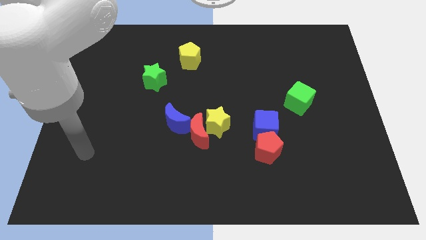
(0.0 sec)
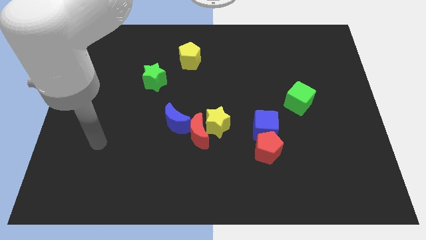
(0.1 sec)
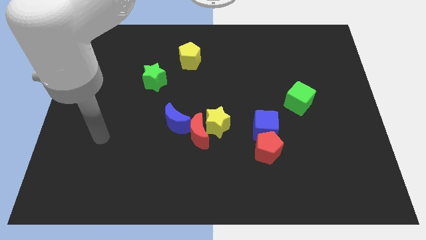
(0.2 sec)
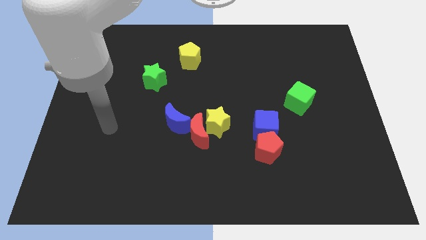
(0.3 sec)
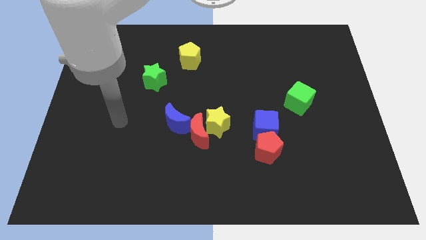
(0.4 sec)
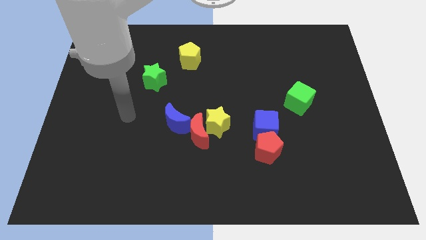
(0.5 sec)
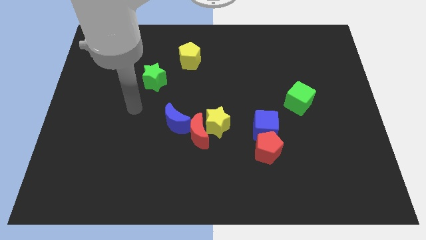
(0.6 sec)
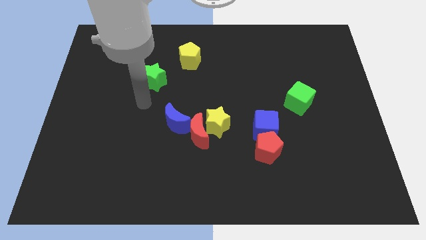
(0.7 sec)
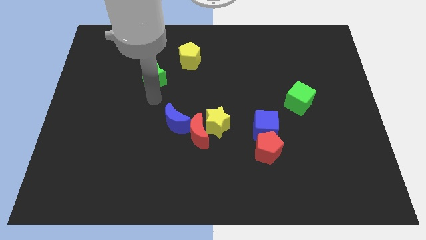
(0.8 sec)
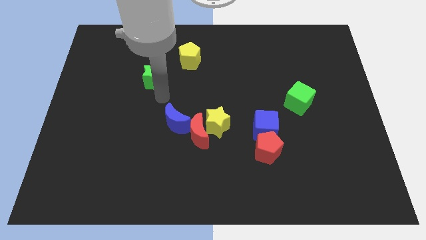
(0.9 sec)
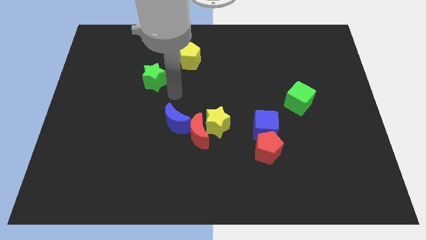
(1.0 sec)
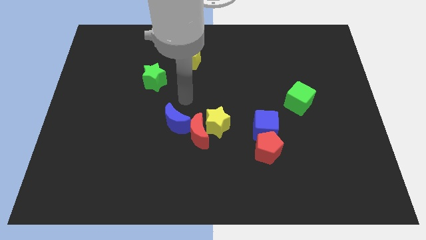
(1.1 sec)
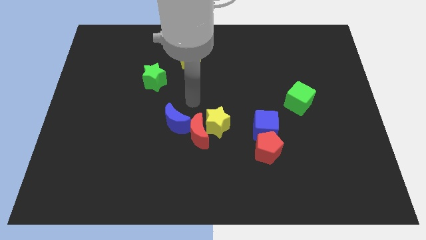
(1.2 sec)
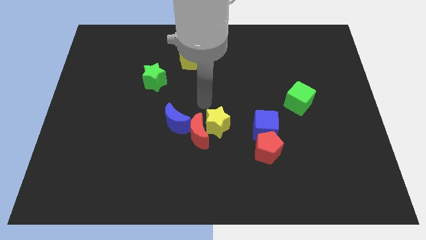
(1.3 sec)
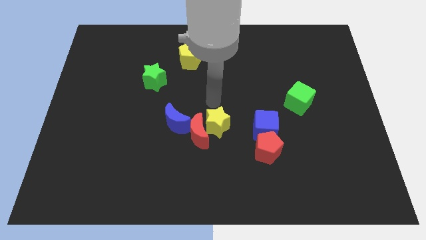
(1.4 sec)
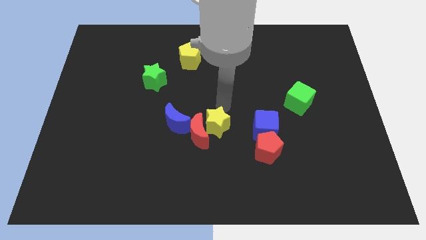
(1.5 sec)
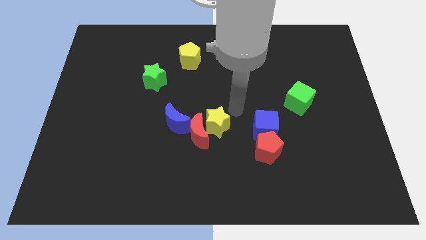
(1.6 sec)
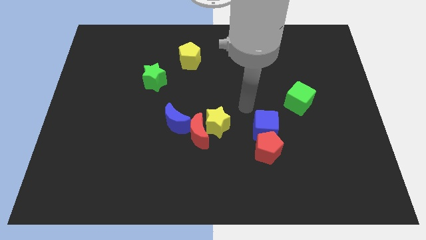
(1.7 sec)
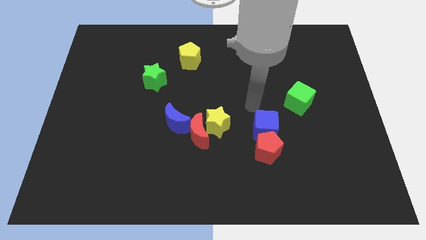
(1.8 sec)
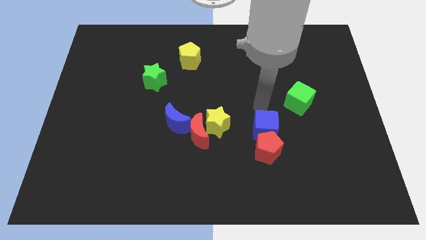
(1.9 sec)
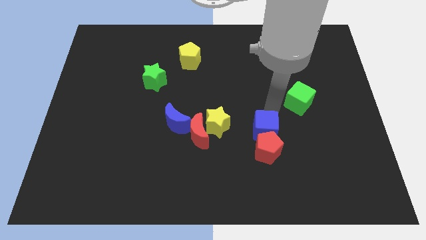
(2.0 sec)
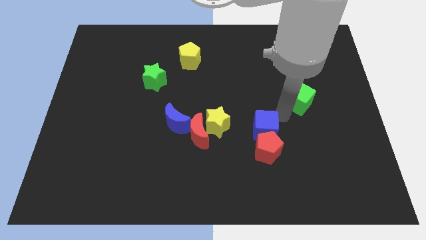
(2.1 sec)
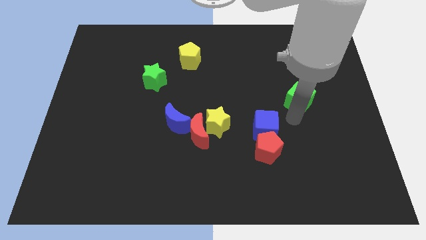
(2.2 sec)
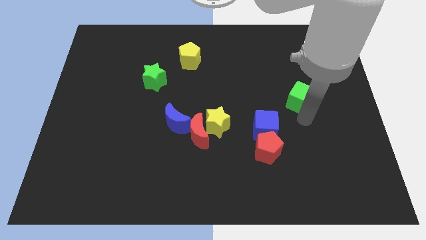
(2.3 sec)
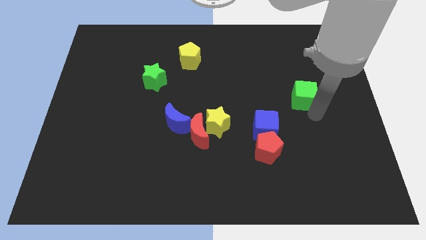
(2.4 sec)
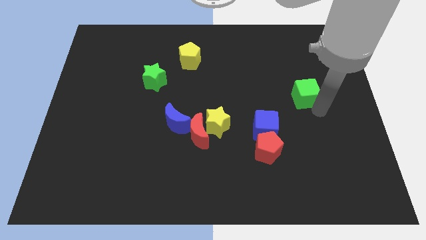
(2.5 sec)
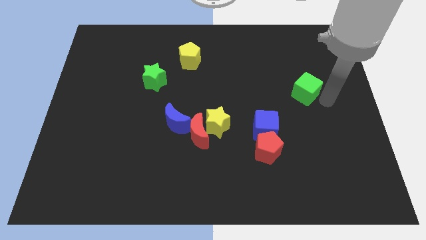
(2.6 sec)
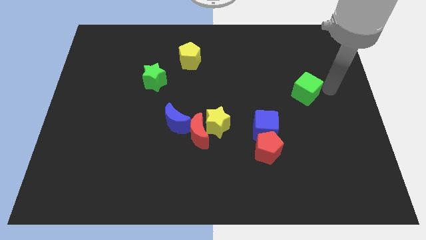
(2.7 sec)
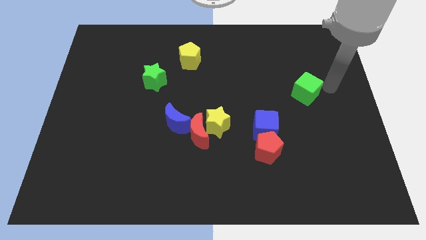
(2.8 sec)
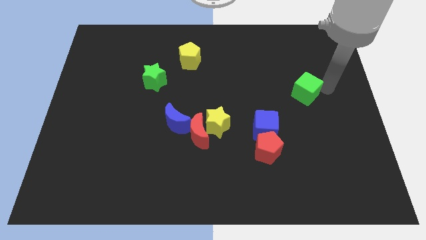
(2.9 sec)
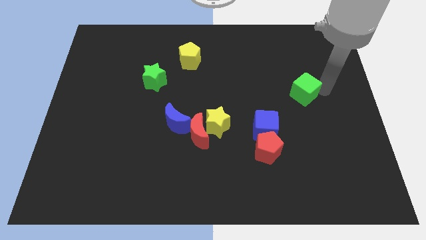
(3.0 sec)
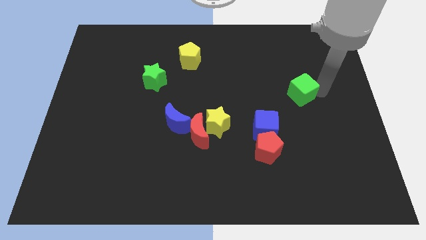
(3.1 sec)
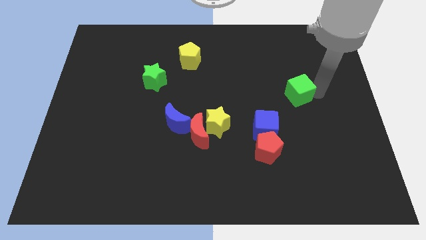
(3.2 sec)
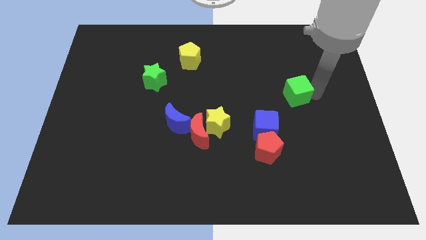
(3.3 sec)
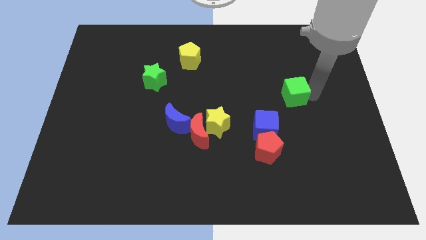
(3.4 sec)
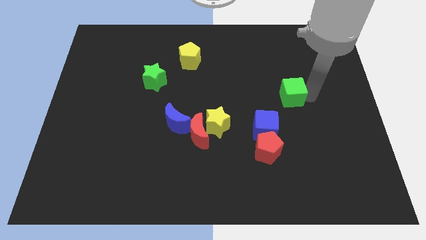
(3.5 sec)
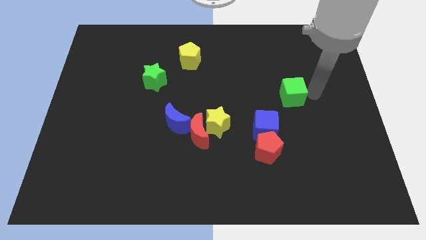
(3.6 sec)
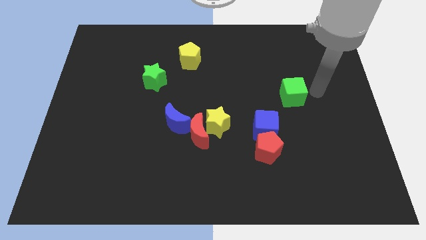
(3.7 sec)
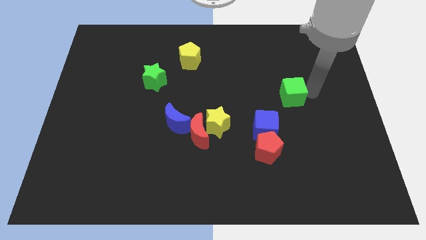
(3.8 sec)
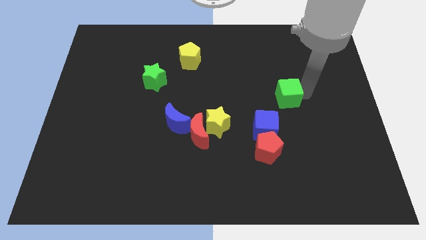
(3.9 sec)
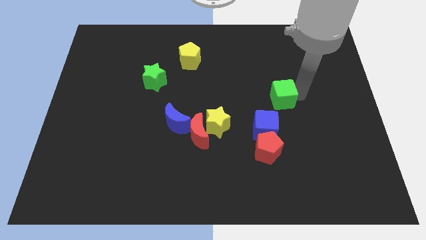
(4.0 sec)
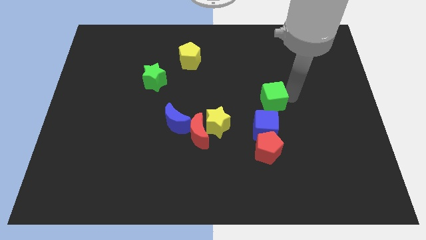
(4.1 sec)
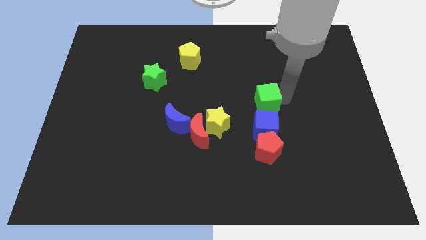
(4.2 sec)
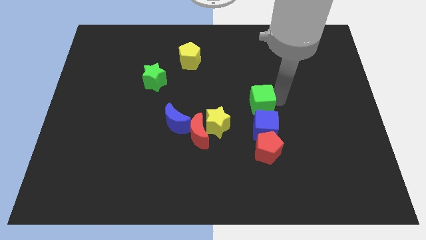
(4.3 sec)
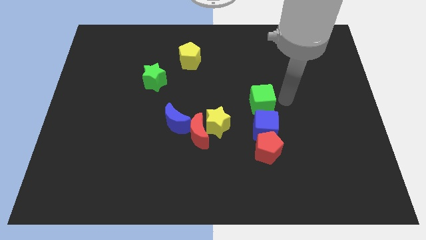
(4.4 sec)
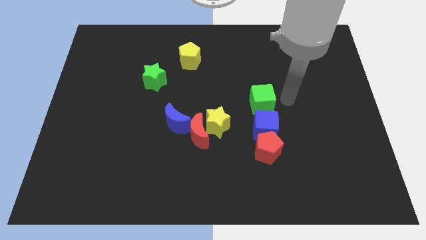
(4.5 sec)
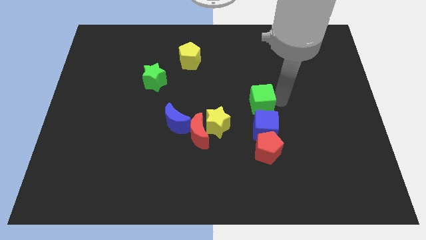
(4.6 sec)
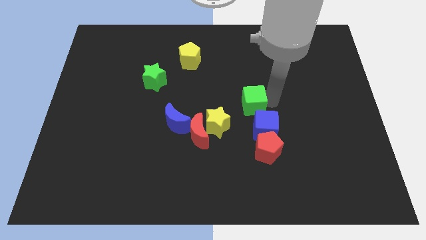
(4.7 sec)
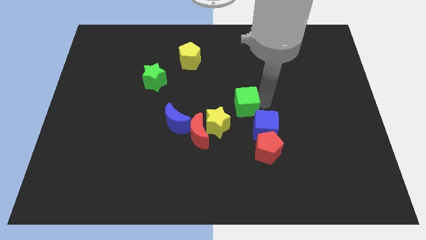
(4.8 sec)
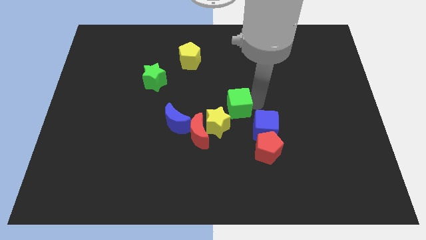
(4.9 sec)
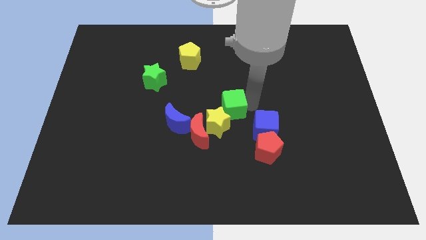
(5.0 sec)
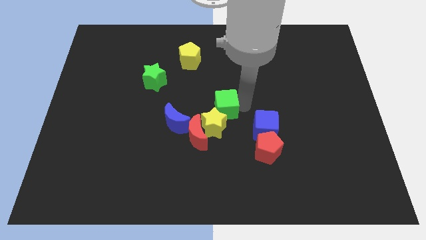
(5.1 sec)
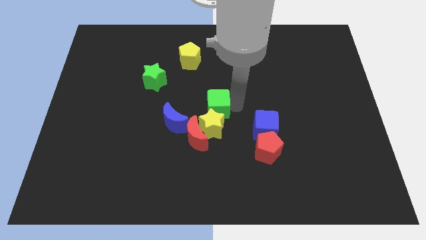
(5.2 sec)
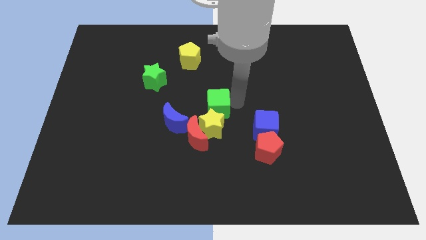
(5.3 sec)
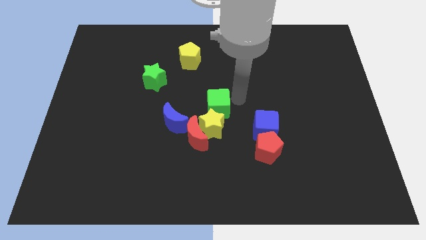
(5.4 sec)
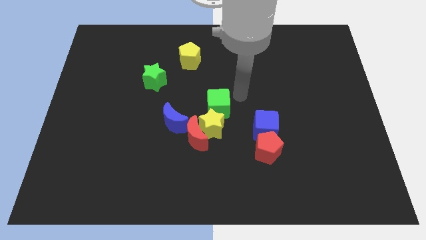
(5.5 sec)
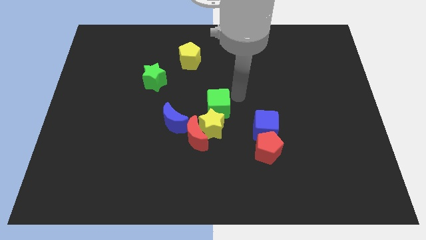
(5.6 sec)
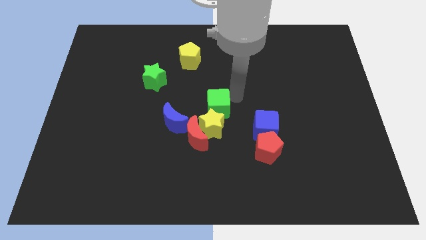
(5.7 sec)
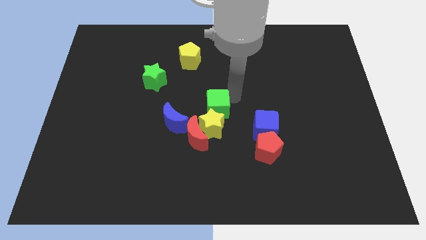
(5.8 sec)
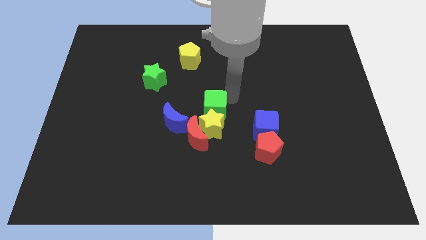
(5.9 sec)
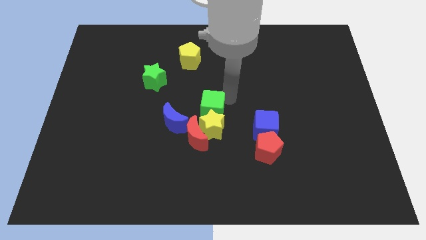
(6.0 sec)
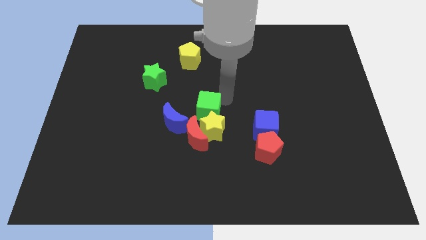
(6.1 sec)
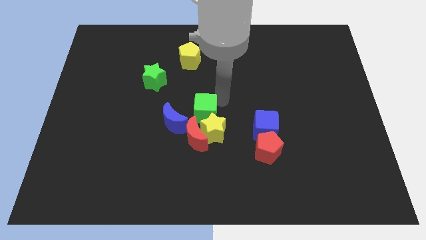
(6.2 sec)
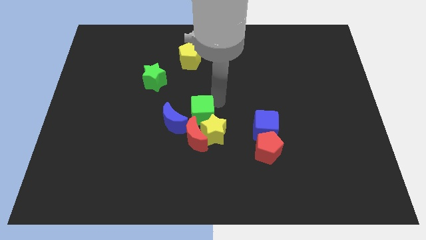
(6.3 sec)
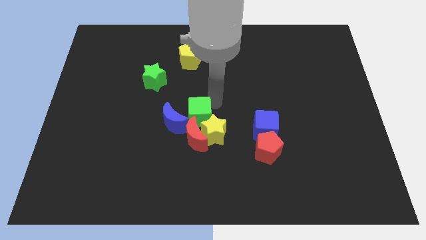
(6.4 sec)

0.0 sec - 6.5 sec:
move the green cube towards the blue moon

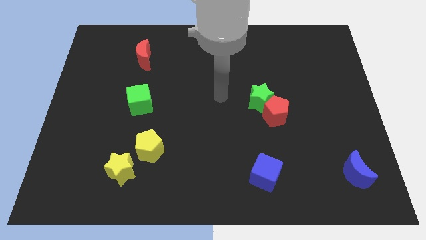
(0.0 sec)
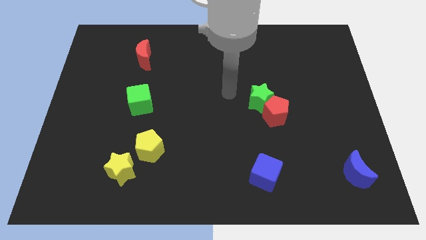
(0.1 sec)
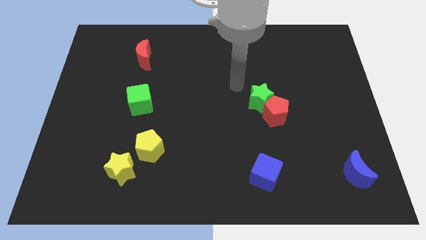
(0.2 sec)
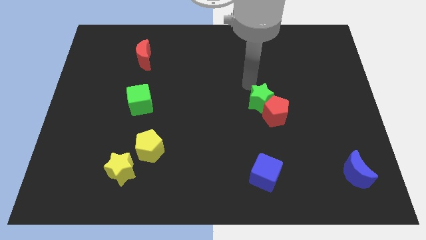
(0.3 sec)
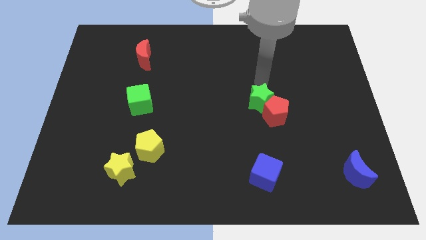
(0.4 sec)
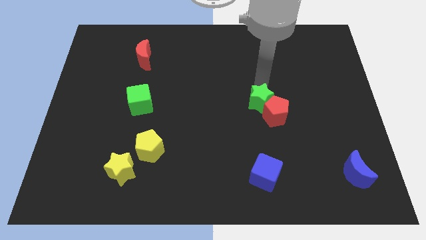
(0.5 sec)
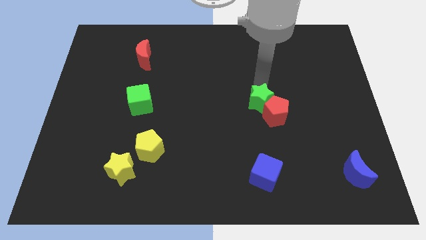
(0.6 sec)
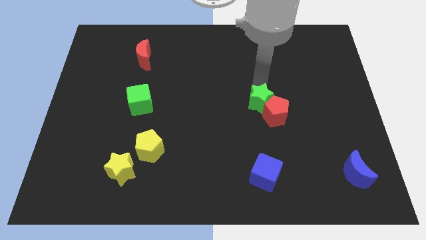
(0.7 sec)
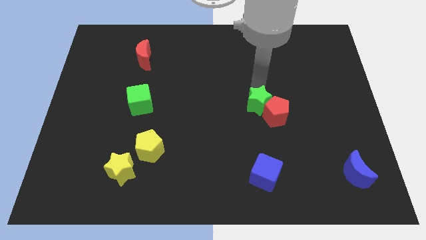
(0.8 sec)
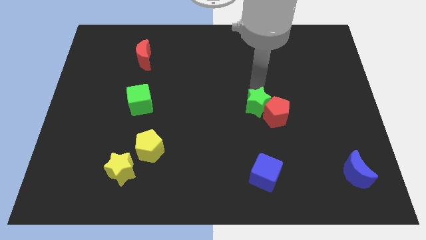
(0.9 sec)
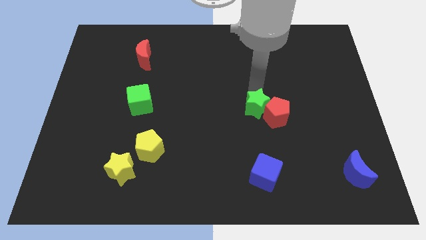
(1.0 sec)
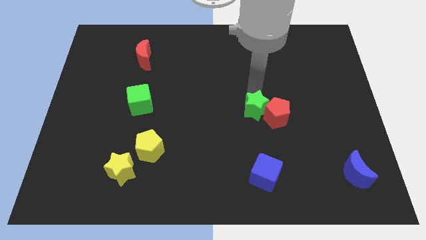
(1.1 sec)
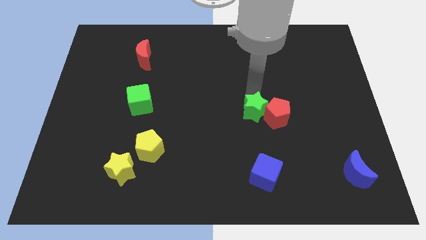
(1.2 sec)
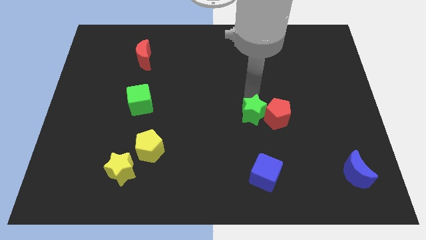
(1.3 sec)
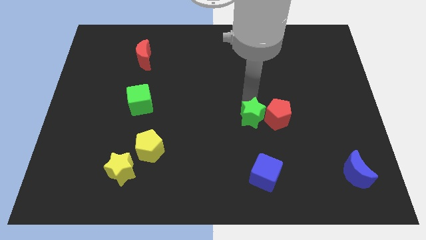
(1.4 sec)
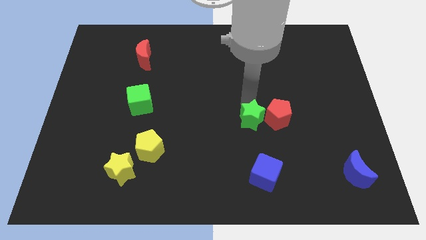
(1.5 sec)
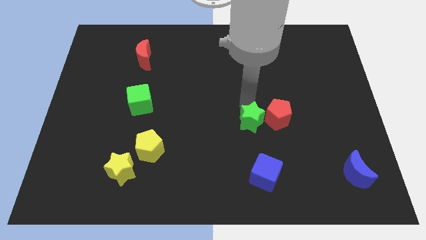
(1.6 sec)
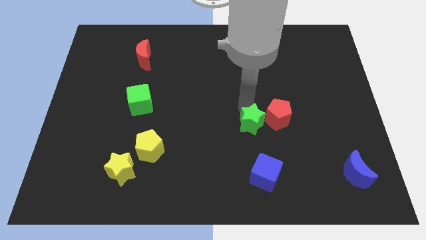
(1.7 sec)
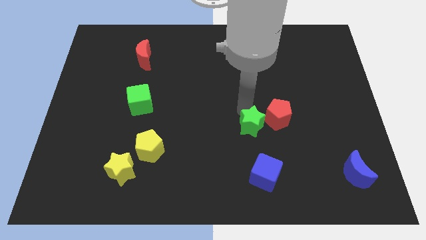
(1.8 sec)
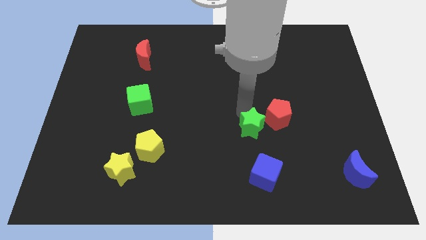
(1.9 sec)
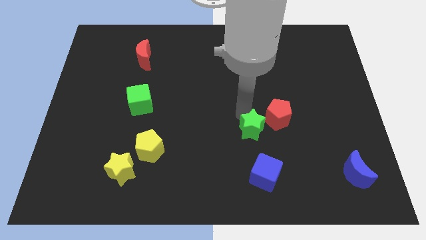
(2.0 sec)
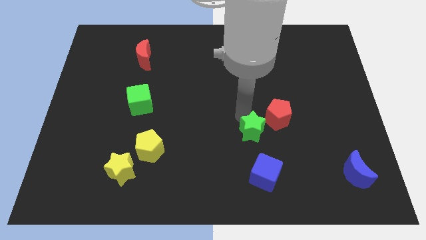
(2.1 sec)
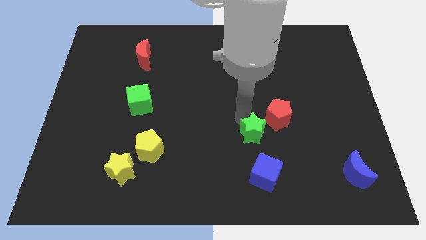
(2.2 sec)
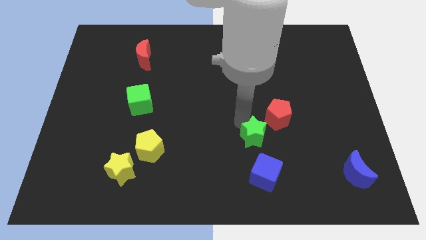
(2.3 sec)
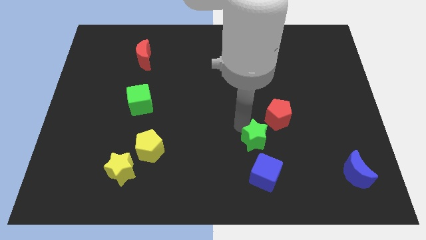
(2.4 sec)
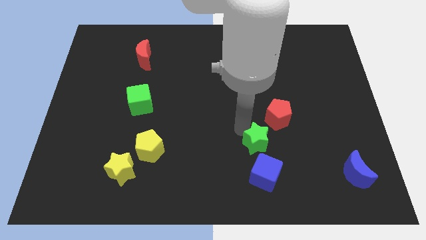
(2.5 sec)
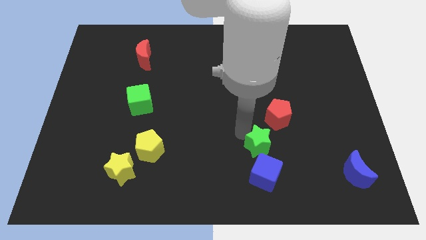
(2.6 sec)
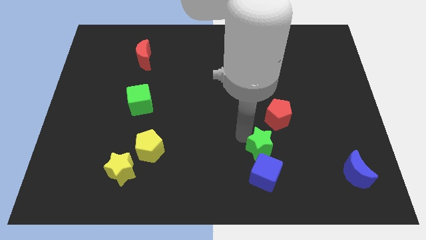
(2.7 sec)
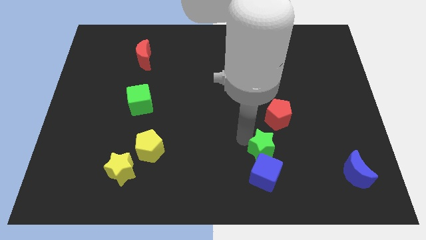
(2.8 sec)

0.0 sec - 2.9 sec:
move the green star towards the blue cube
